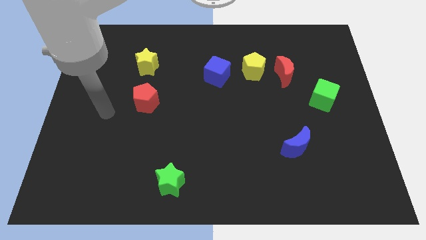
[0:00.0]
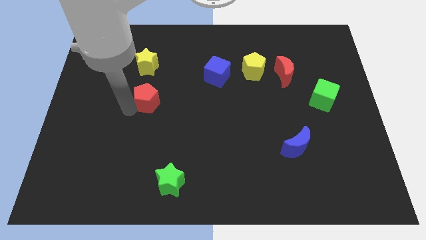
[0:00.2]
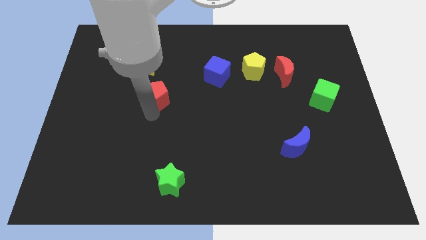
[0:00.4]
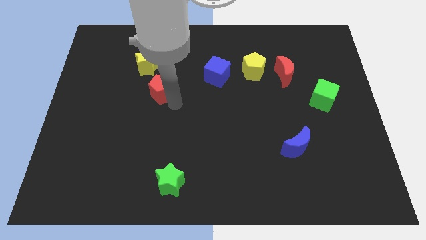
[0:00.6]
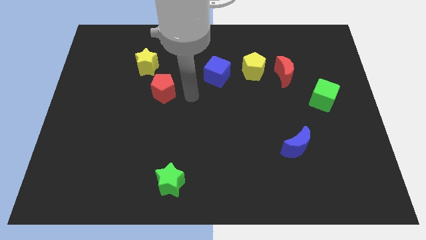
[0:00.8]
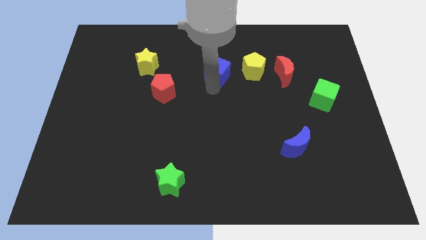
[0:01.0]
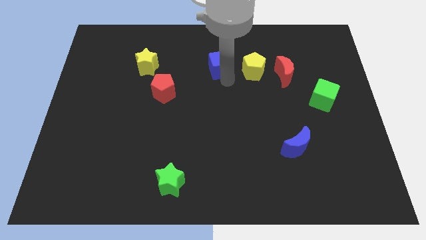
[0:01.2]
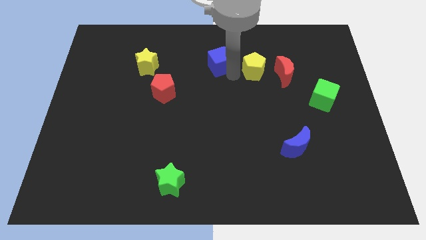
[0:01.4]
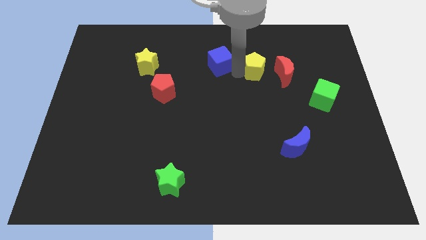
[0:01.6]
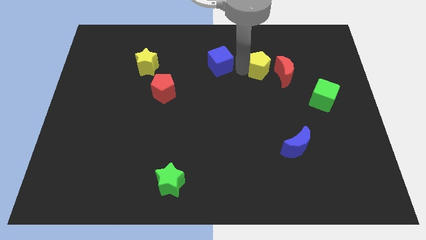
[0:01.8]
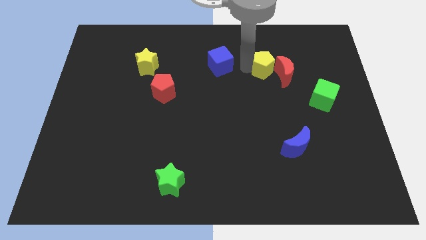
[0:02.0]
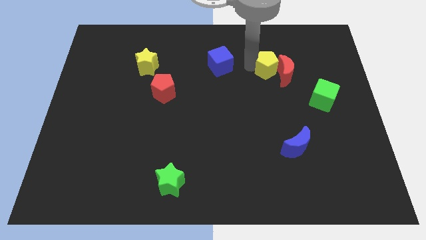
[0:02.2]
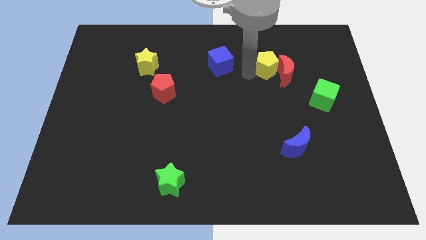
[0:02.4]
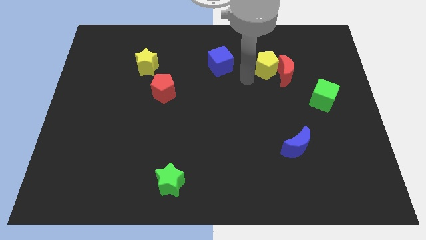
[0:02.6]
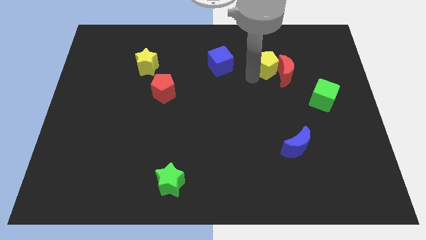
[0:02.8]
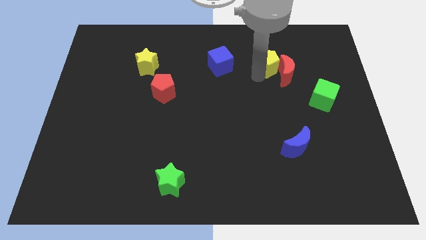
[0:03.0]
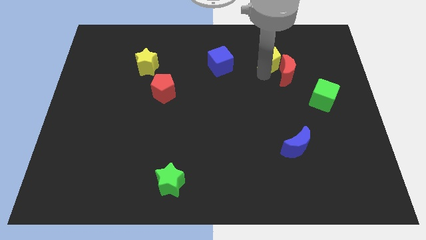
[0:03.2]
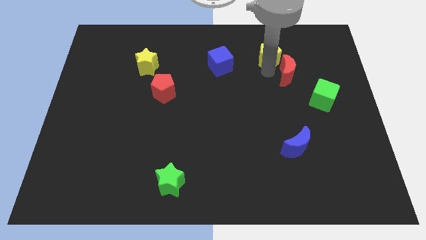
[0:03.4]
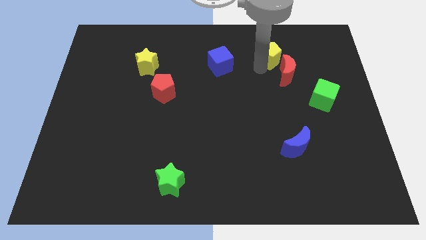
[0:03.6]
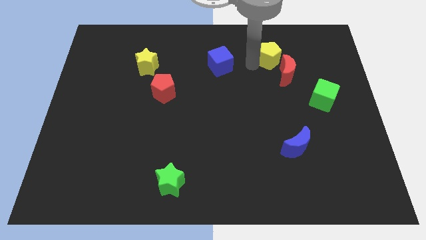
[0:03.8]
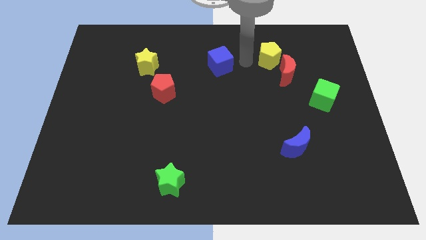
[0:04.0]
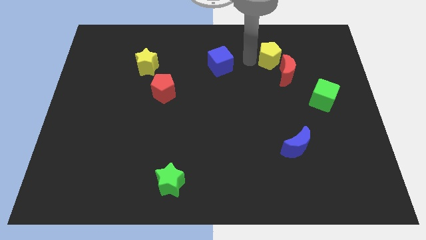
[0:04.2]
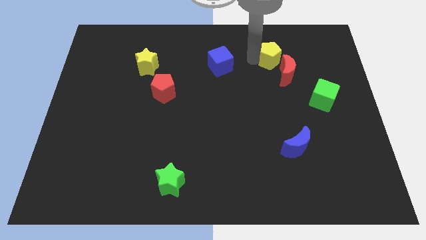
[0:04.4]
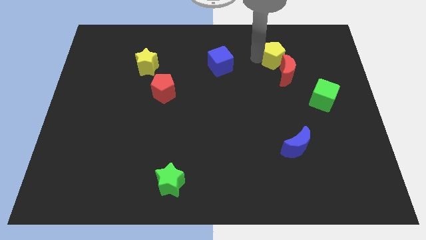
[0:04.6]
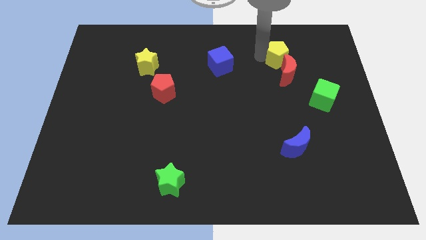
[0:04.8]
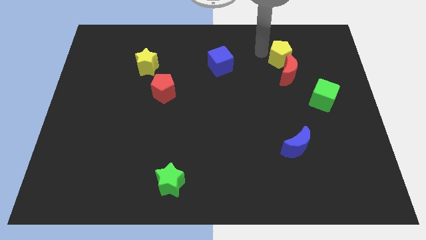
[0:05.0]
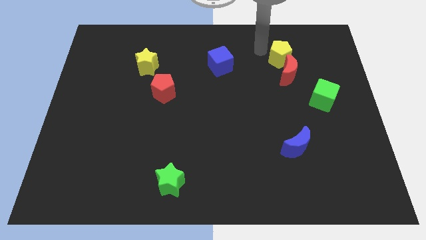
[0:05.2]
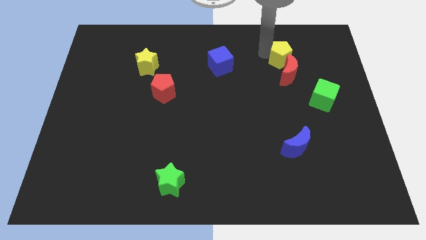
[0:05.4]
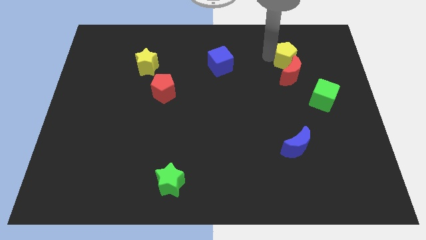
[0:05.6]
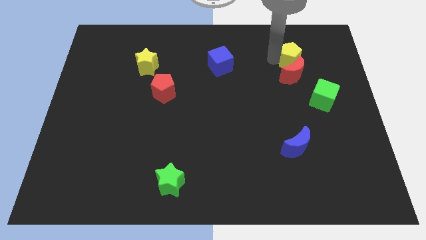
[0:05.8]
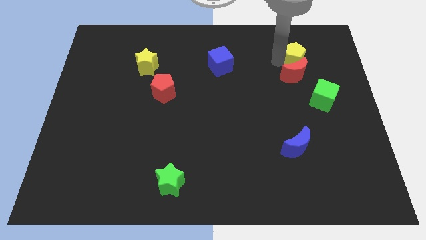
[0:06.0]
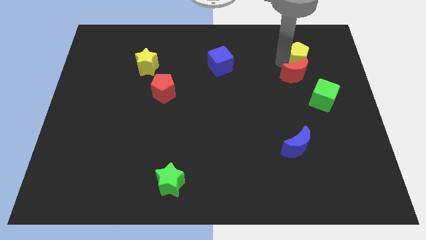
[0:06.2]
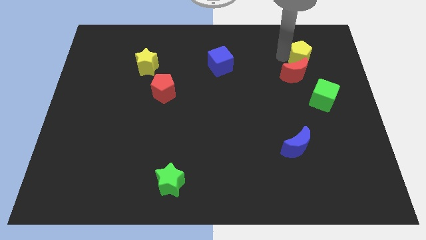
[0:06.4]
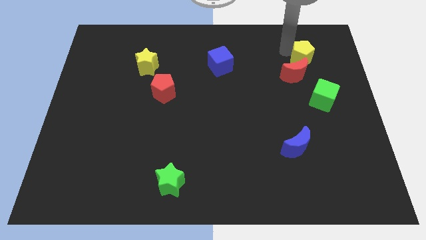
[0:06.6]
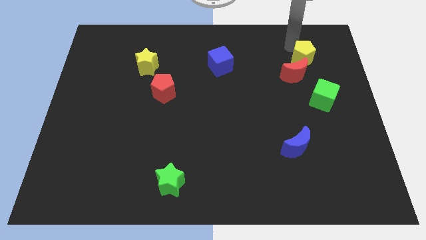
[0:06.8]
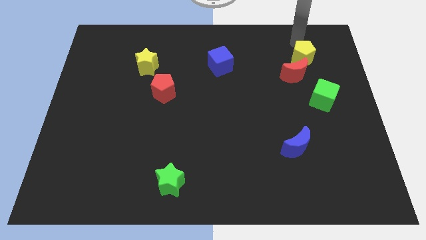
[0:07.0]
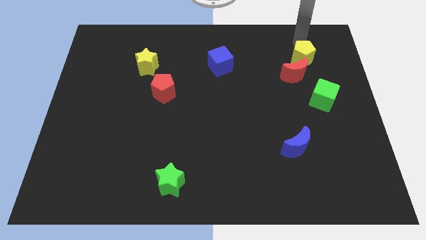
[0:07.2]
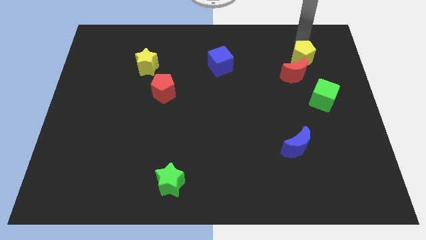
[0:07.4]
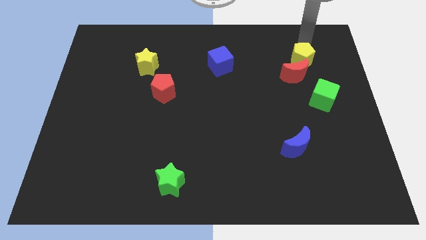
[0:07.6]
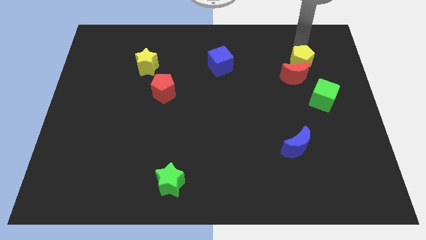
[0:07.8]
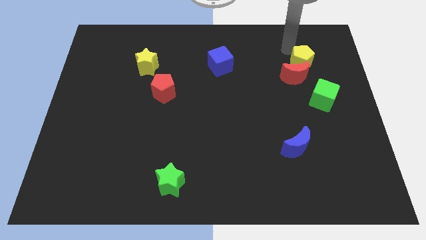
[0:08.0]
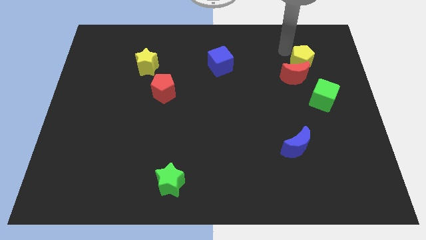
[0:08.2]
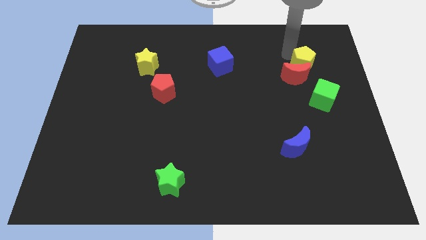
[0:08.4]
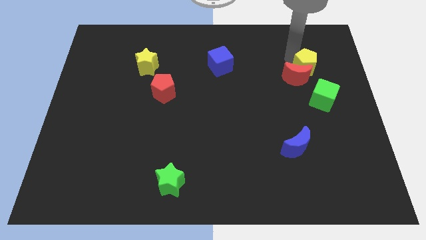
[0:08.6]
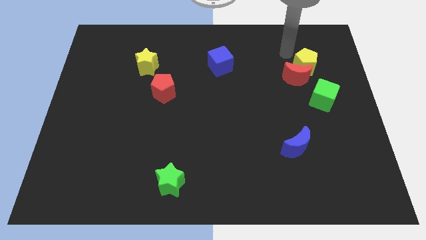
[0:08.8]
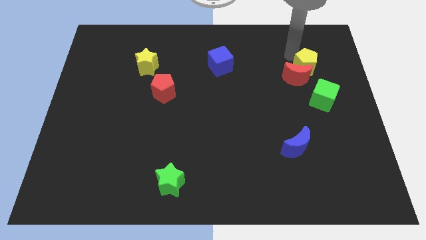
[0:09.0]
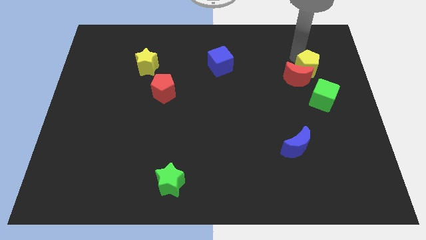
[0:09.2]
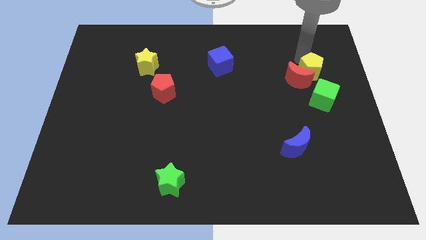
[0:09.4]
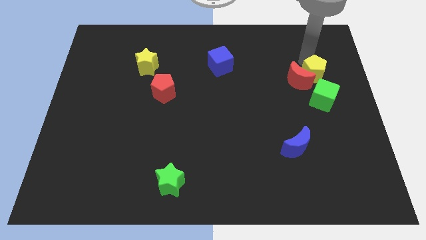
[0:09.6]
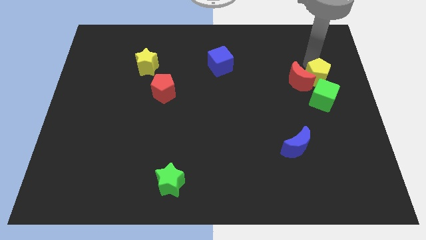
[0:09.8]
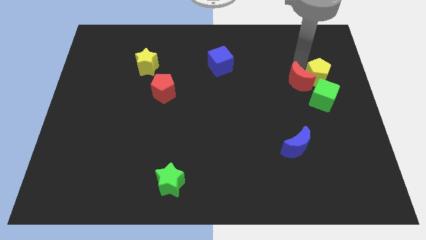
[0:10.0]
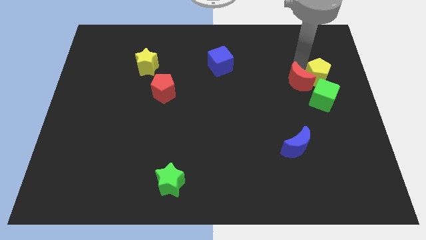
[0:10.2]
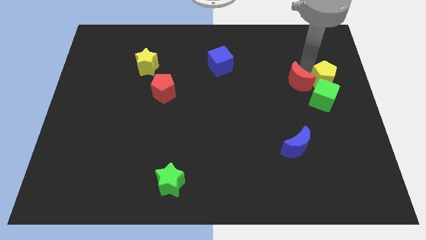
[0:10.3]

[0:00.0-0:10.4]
slide the yellow pentagon to the center right

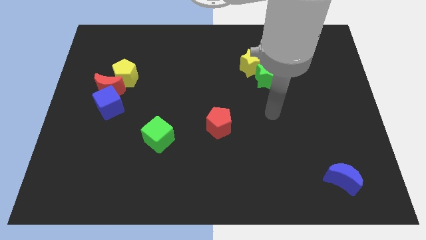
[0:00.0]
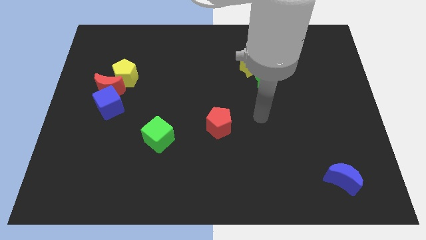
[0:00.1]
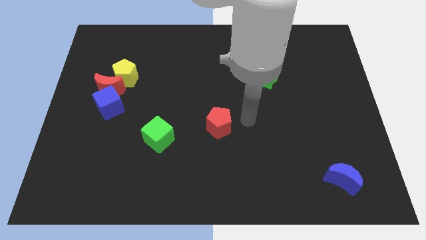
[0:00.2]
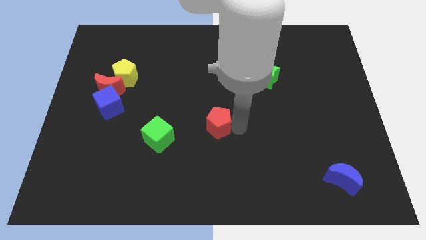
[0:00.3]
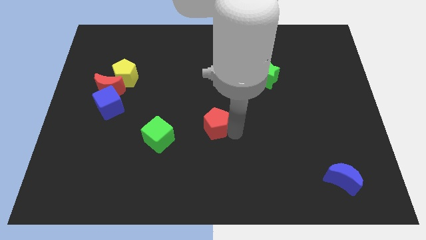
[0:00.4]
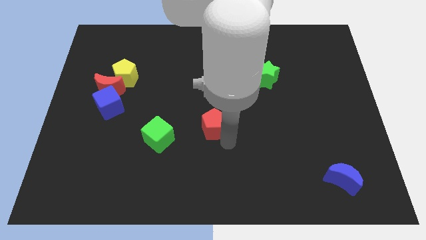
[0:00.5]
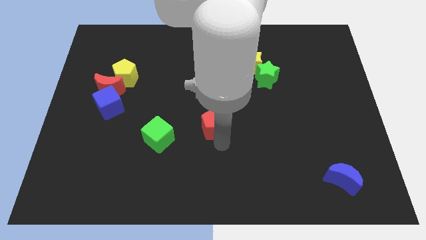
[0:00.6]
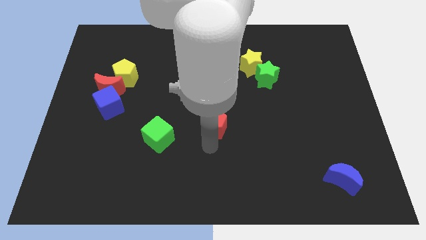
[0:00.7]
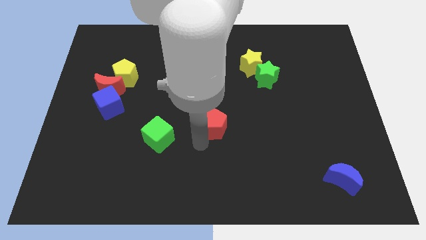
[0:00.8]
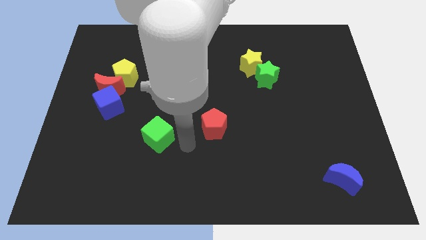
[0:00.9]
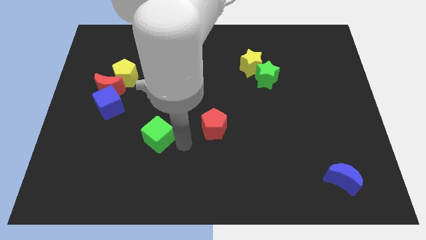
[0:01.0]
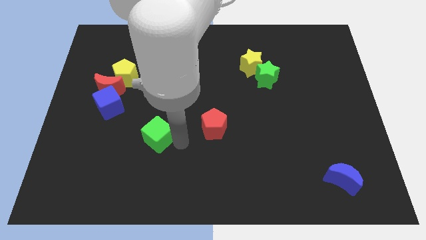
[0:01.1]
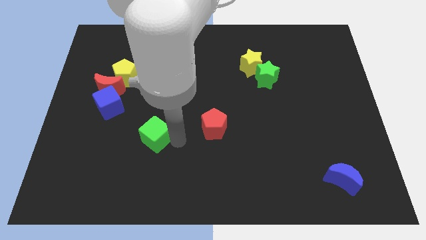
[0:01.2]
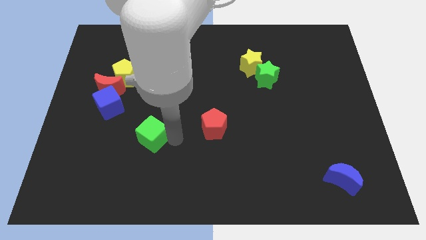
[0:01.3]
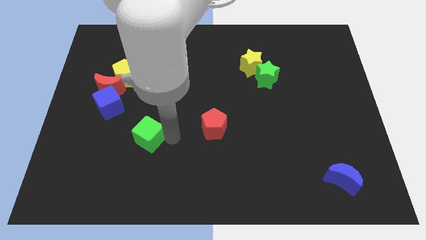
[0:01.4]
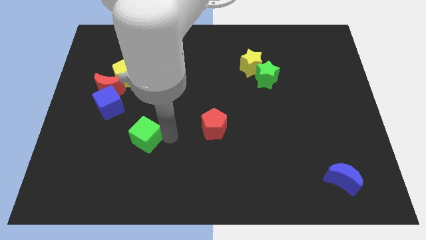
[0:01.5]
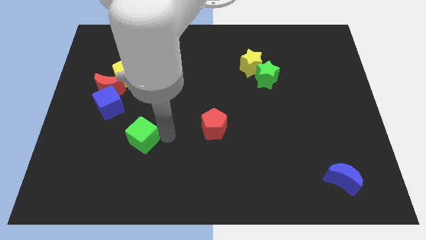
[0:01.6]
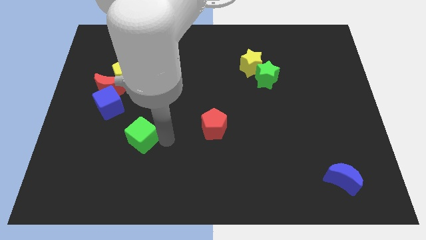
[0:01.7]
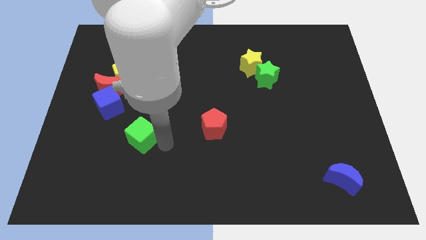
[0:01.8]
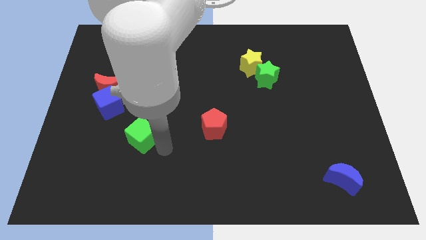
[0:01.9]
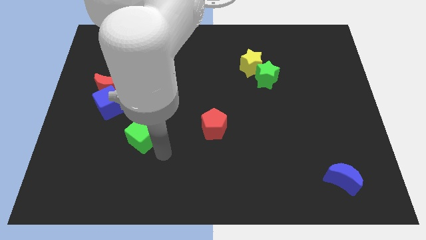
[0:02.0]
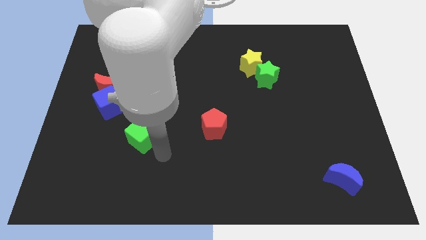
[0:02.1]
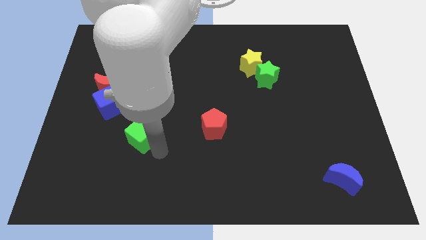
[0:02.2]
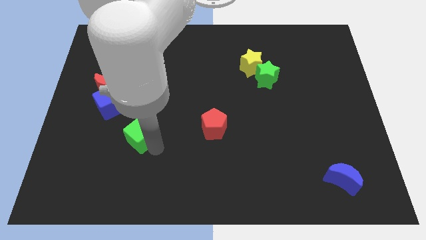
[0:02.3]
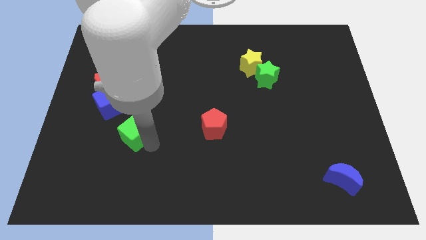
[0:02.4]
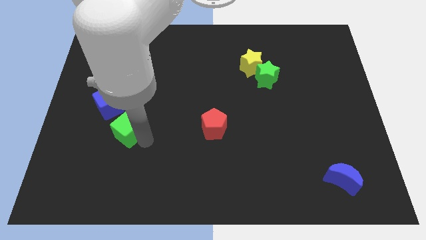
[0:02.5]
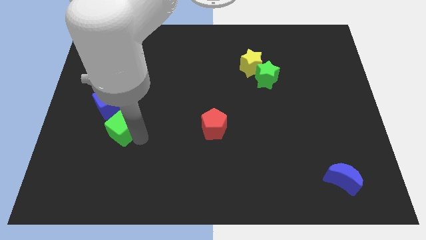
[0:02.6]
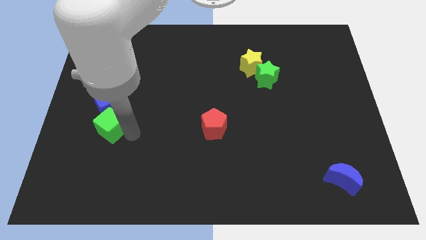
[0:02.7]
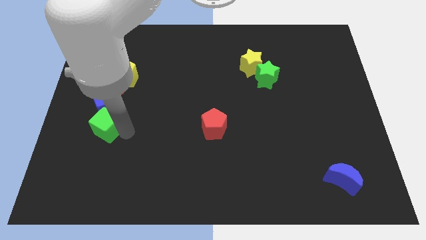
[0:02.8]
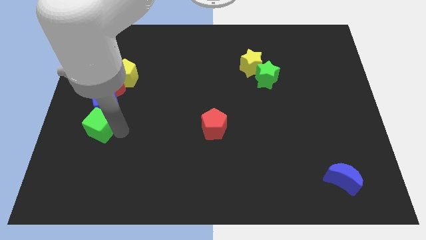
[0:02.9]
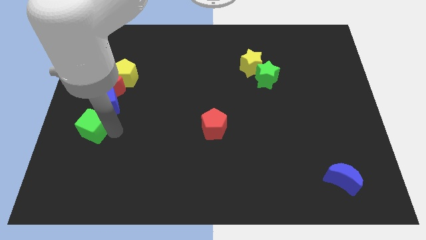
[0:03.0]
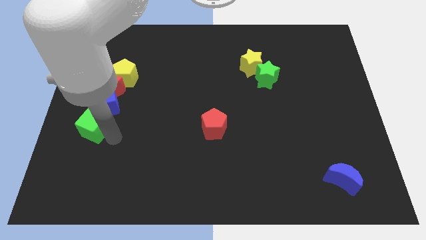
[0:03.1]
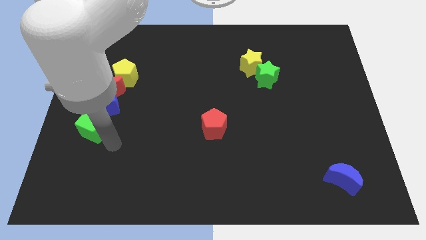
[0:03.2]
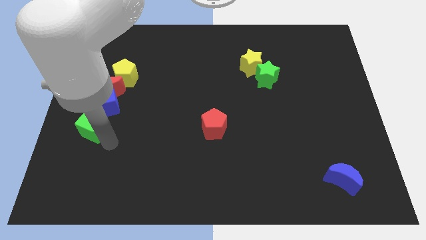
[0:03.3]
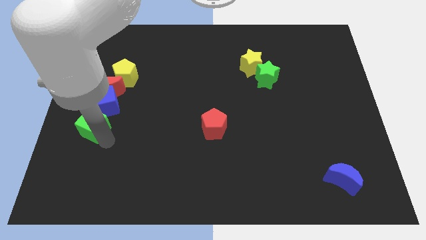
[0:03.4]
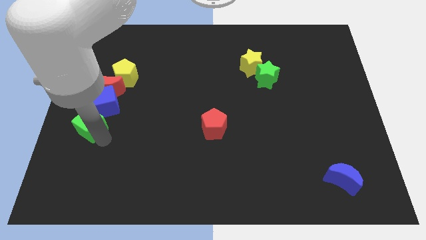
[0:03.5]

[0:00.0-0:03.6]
move the green cube to the left side
